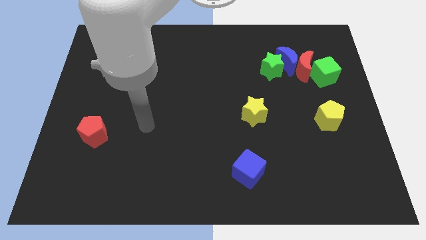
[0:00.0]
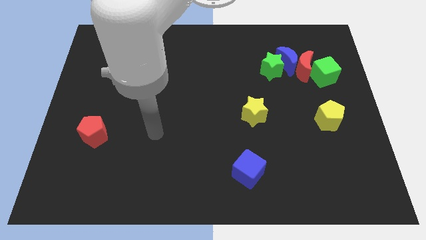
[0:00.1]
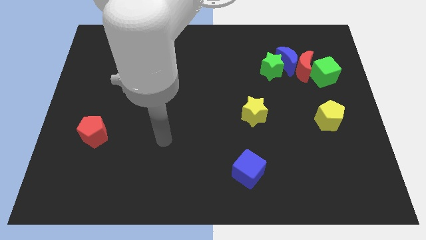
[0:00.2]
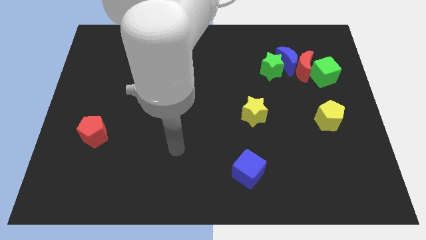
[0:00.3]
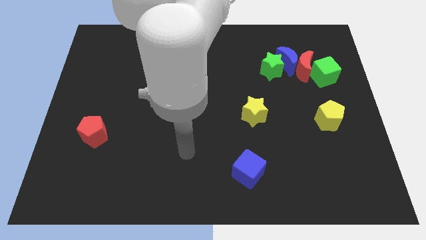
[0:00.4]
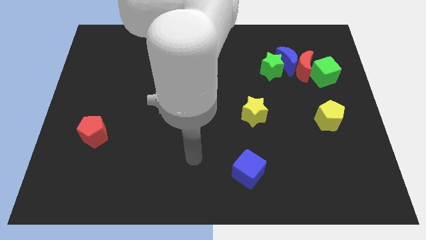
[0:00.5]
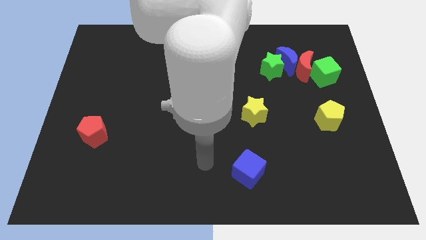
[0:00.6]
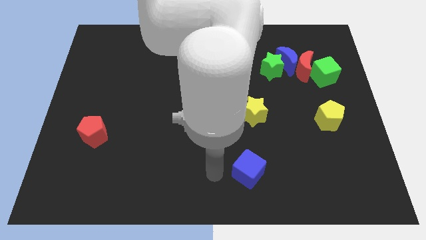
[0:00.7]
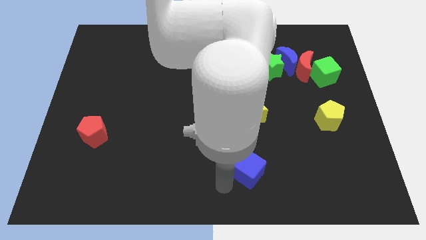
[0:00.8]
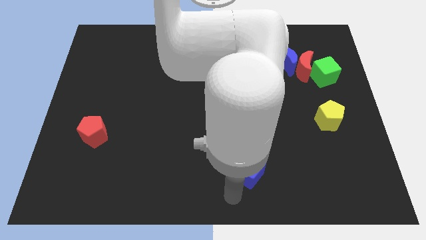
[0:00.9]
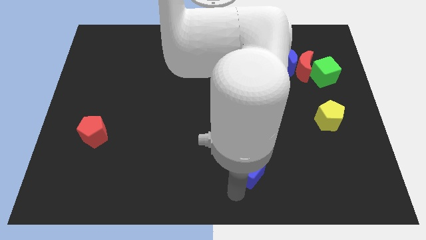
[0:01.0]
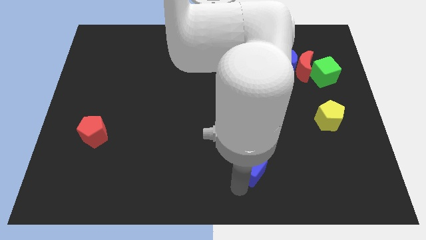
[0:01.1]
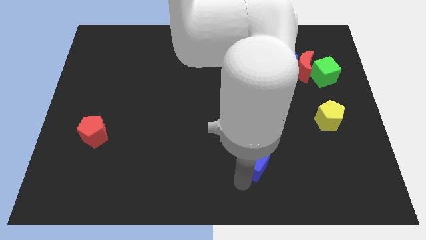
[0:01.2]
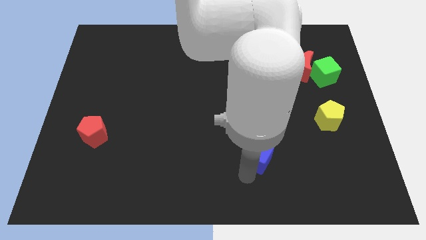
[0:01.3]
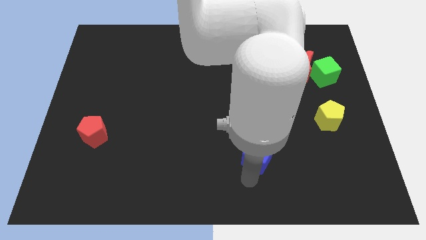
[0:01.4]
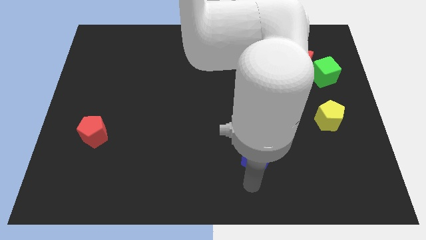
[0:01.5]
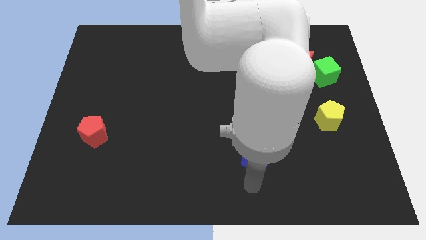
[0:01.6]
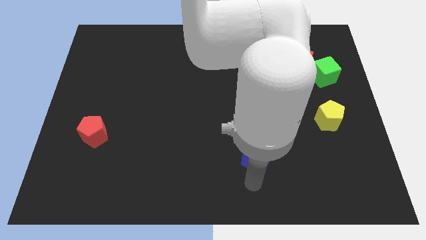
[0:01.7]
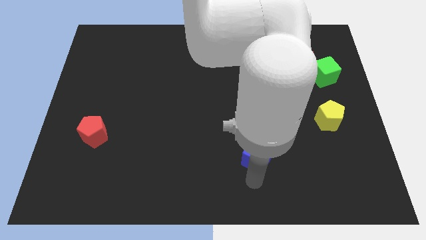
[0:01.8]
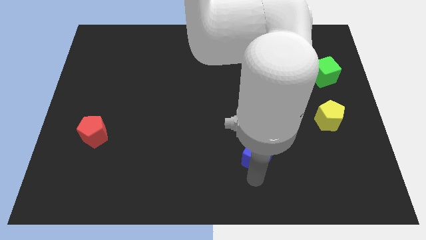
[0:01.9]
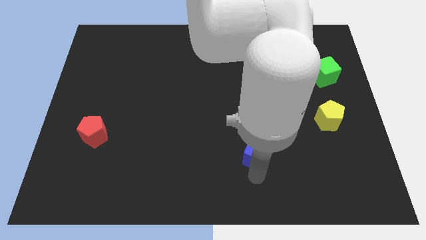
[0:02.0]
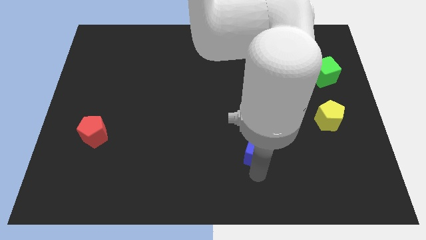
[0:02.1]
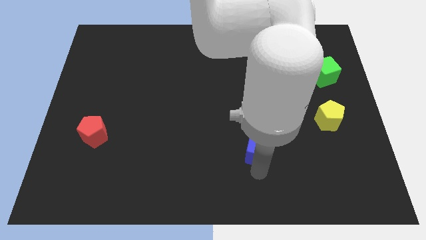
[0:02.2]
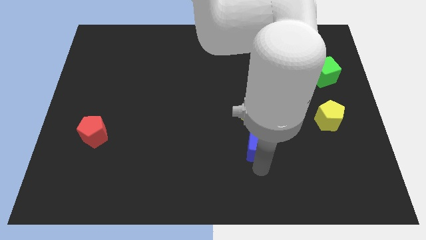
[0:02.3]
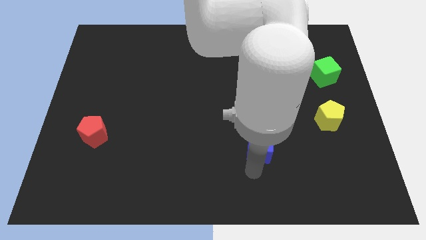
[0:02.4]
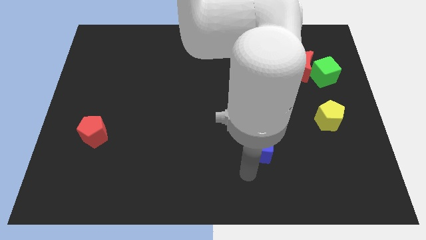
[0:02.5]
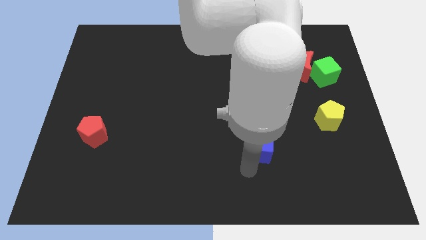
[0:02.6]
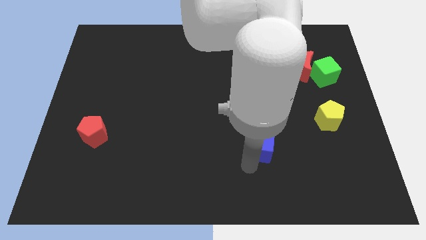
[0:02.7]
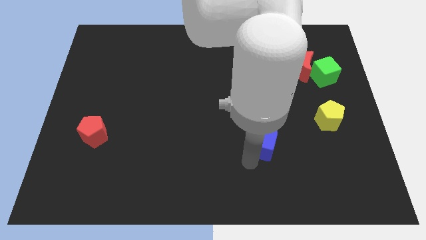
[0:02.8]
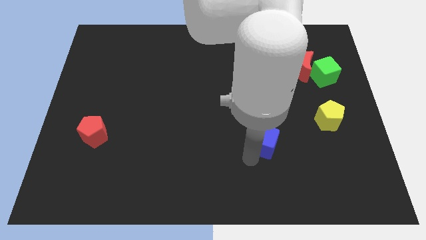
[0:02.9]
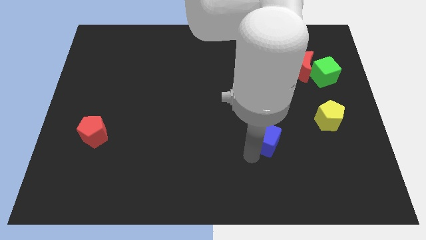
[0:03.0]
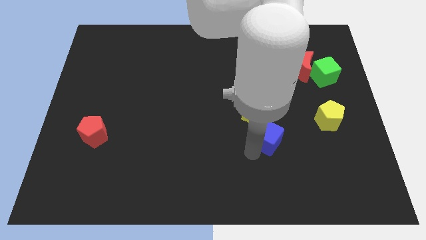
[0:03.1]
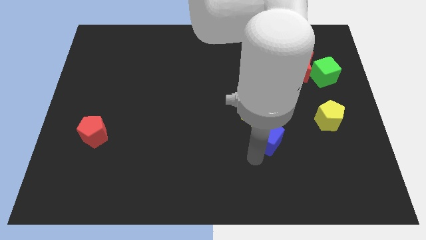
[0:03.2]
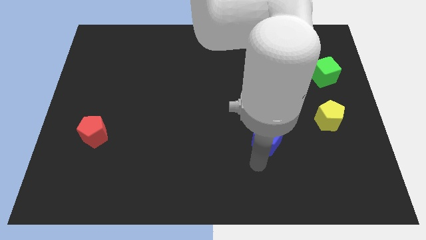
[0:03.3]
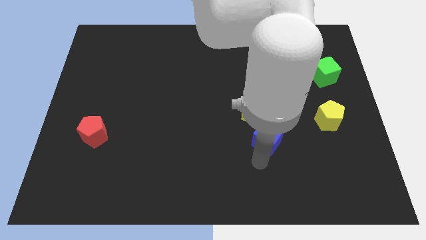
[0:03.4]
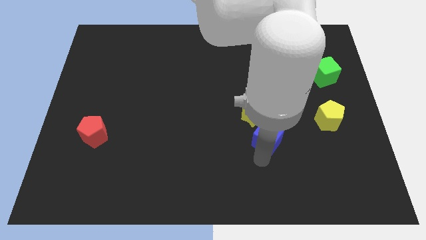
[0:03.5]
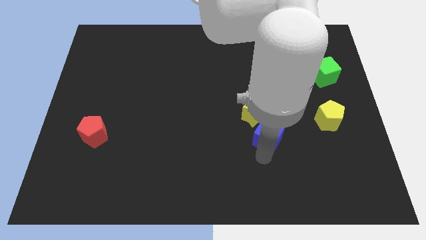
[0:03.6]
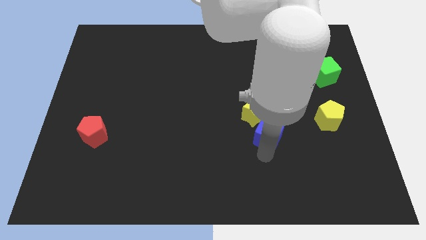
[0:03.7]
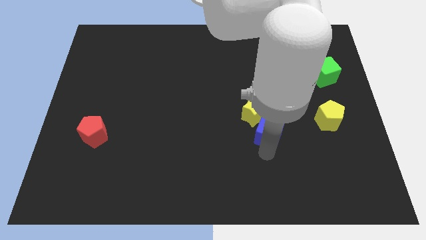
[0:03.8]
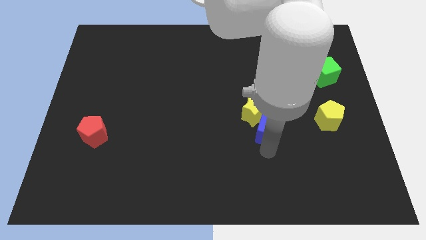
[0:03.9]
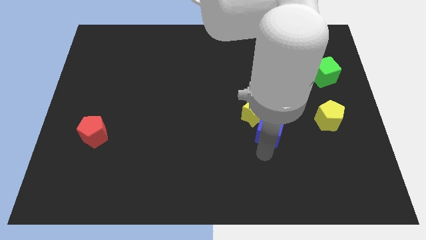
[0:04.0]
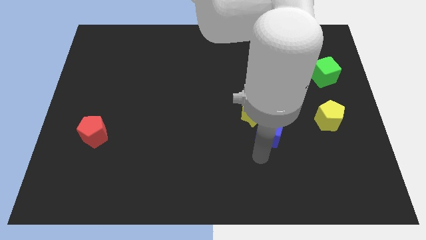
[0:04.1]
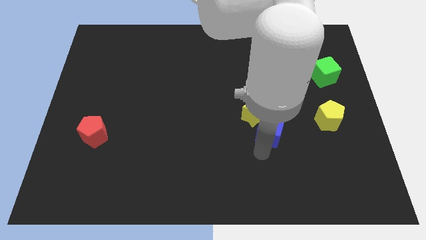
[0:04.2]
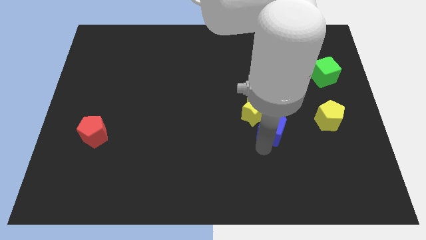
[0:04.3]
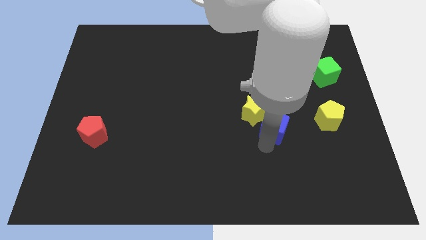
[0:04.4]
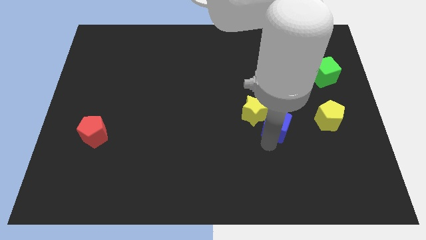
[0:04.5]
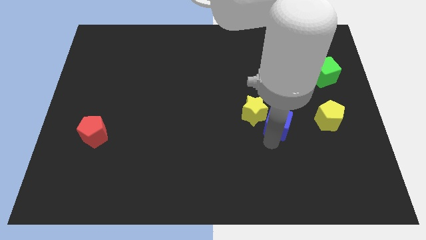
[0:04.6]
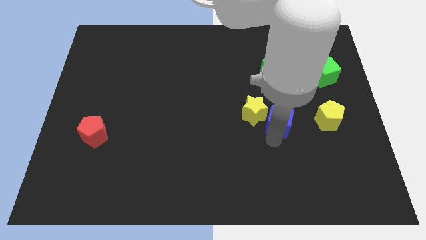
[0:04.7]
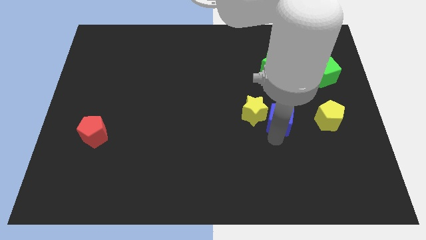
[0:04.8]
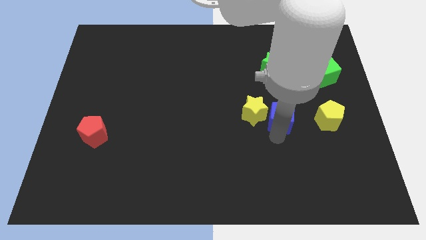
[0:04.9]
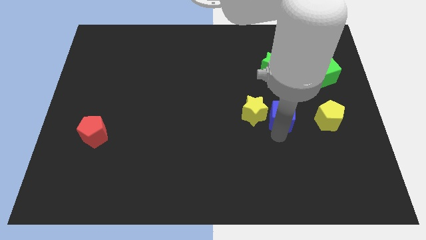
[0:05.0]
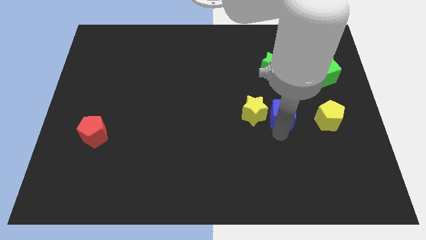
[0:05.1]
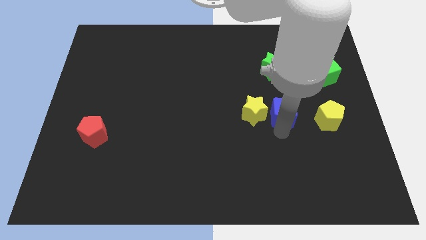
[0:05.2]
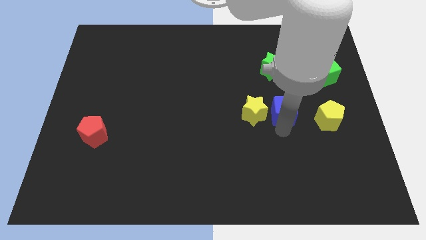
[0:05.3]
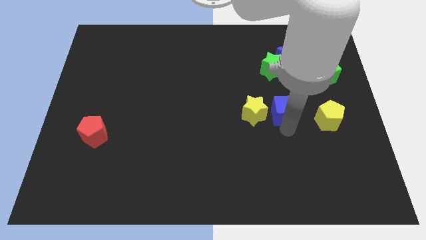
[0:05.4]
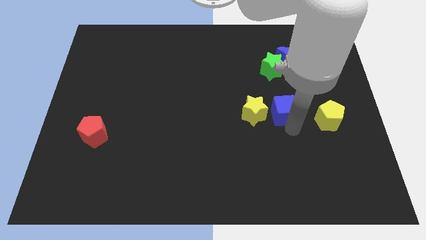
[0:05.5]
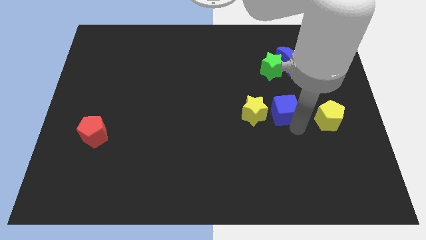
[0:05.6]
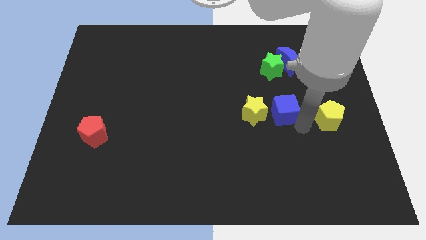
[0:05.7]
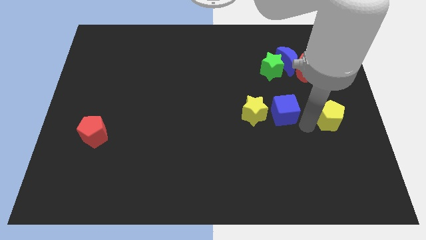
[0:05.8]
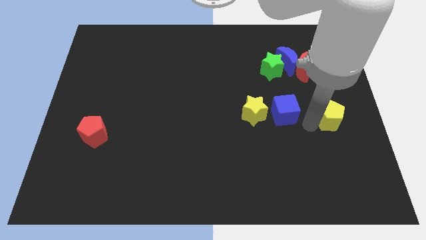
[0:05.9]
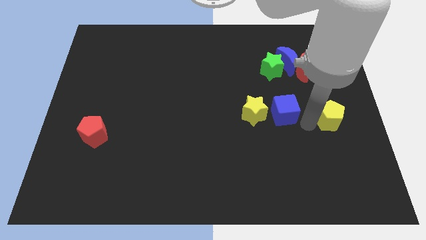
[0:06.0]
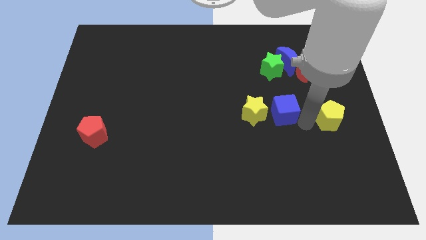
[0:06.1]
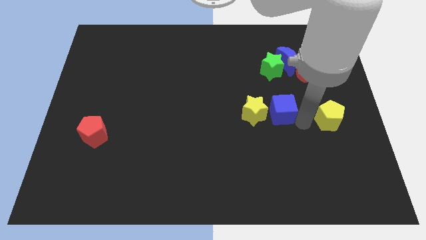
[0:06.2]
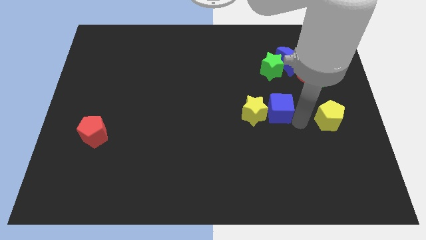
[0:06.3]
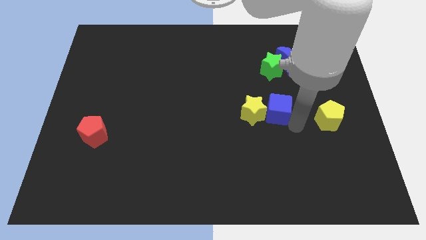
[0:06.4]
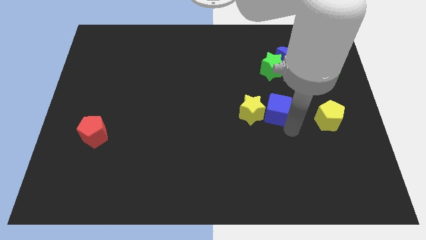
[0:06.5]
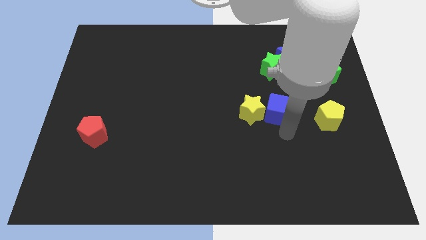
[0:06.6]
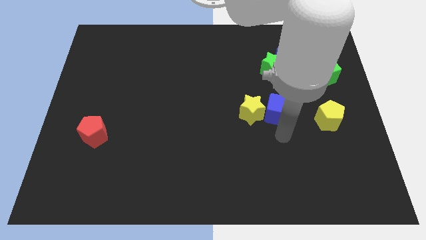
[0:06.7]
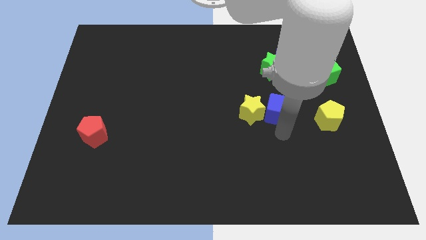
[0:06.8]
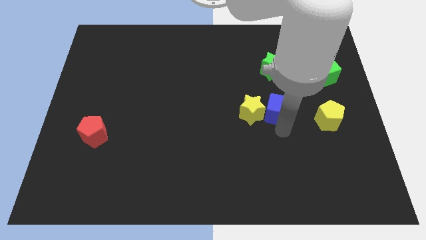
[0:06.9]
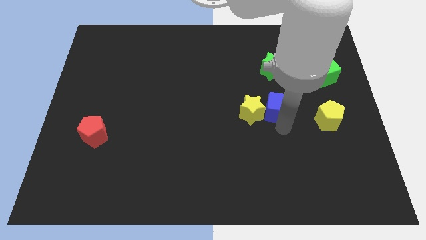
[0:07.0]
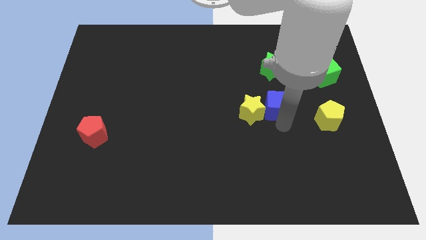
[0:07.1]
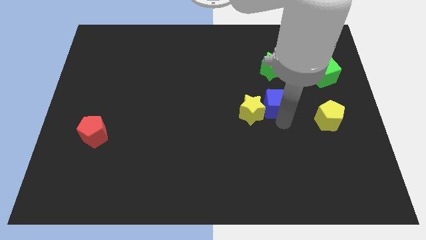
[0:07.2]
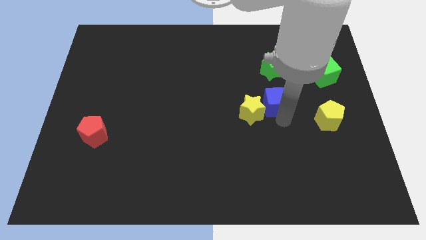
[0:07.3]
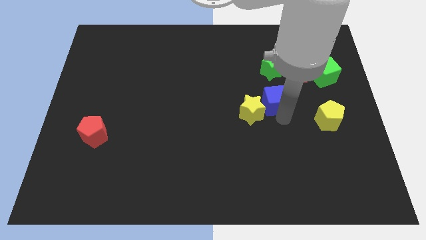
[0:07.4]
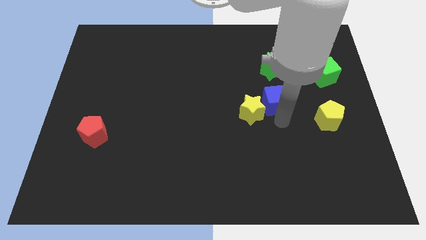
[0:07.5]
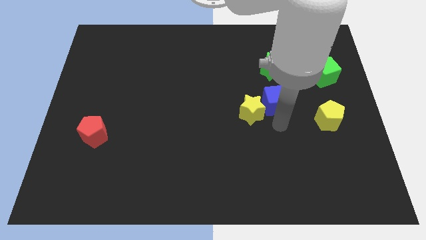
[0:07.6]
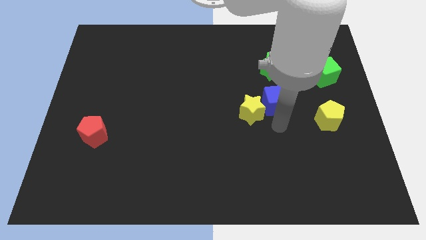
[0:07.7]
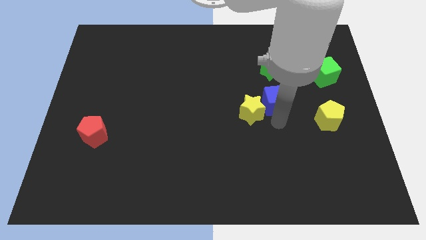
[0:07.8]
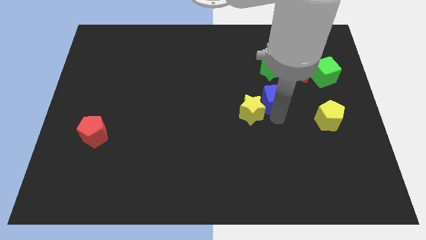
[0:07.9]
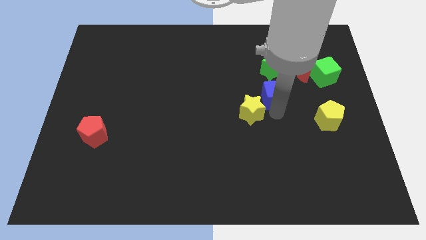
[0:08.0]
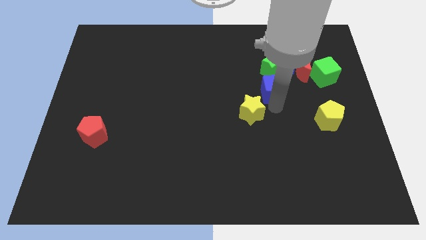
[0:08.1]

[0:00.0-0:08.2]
move the blue cube to the bottom left of the blue moon
